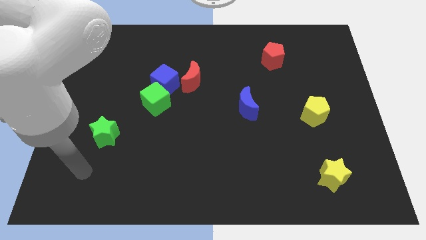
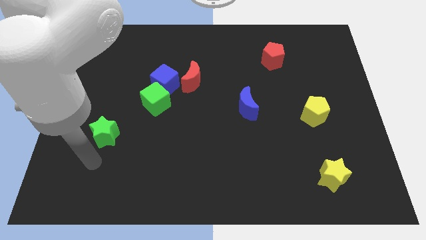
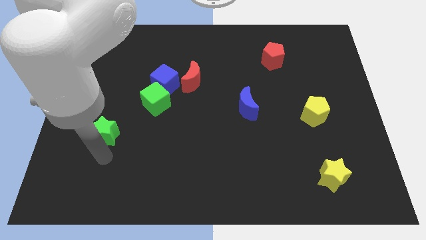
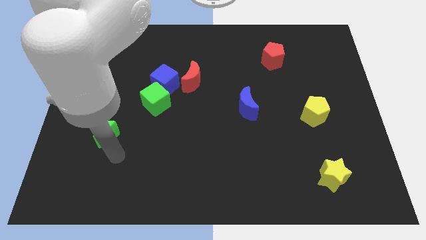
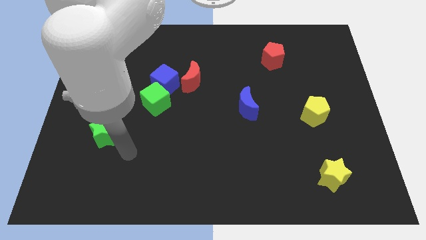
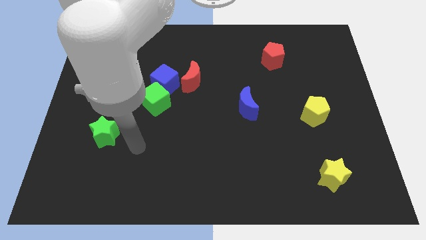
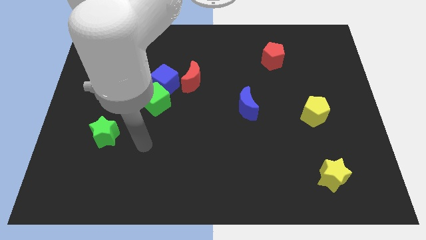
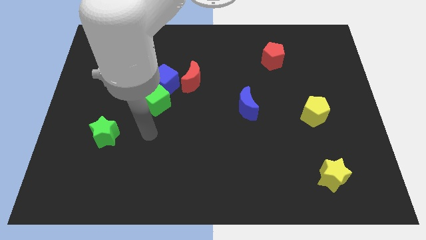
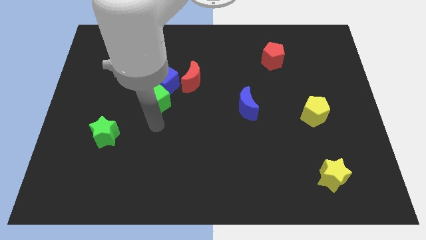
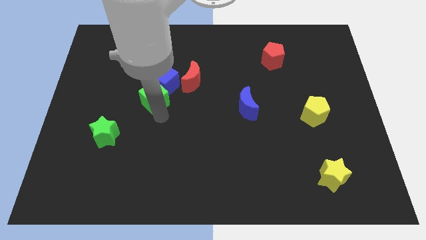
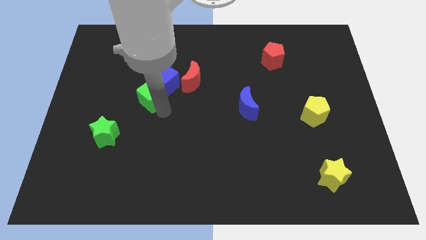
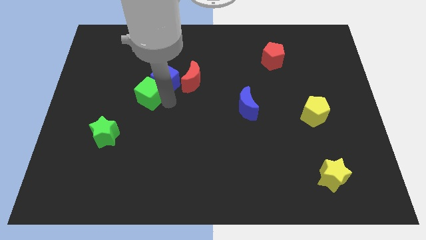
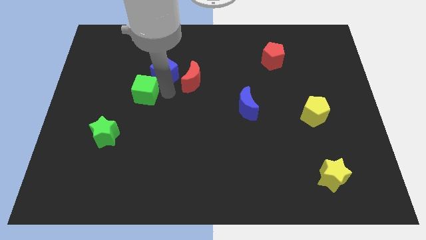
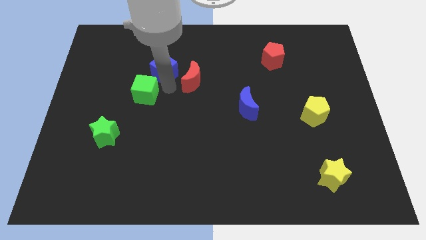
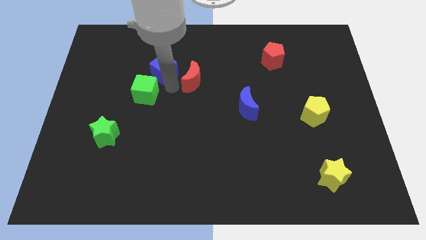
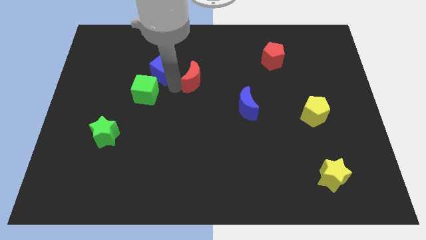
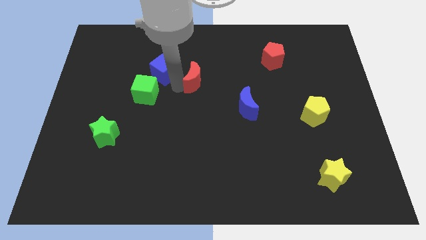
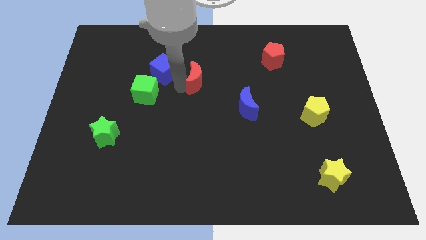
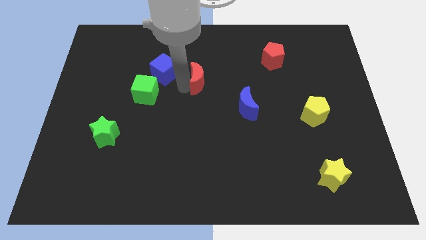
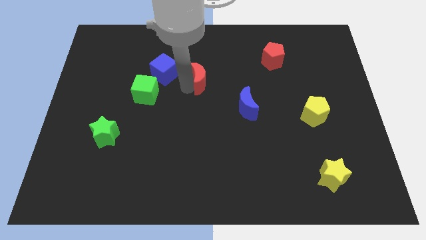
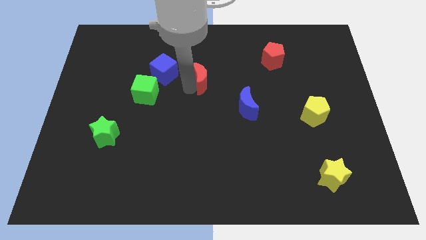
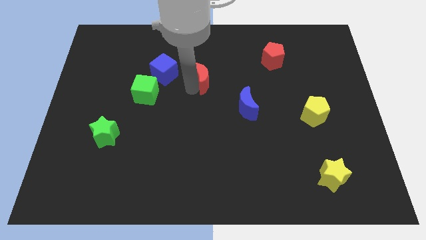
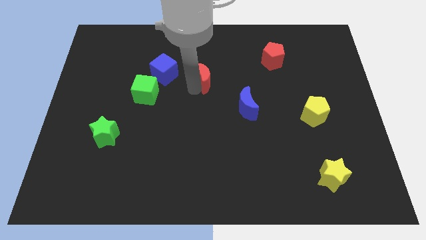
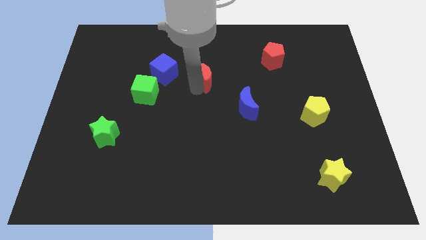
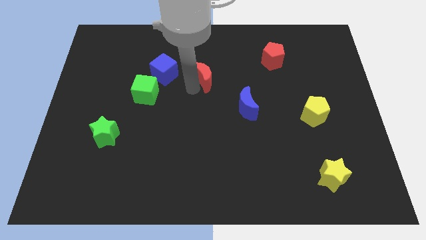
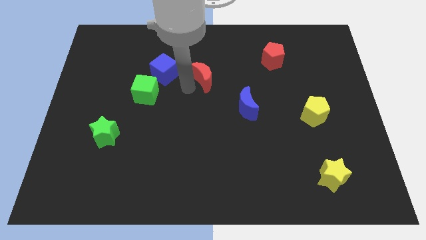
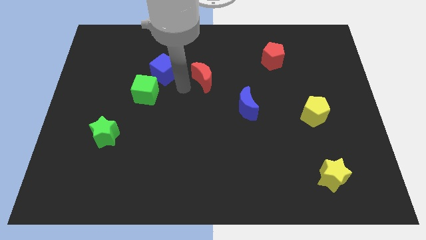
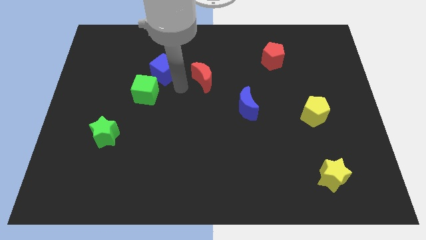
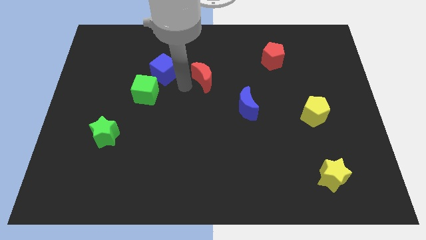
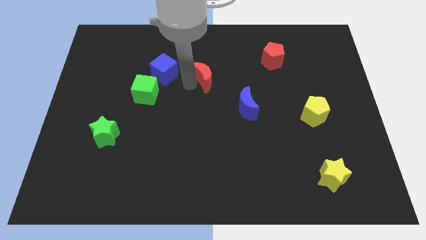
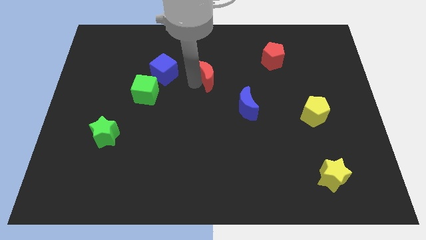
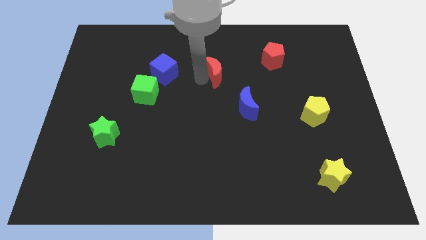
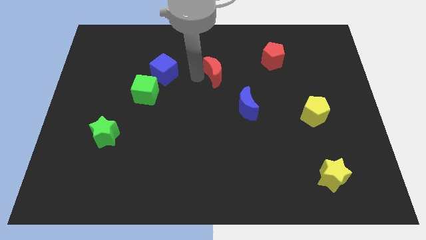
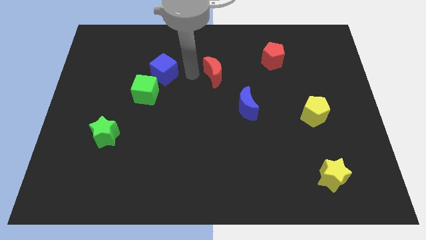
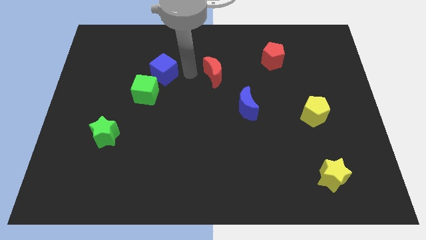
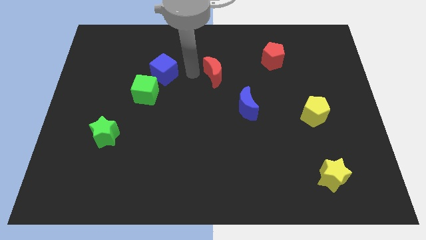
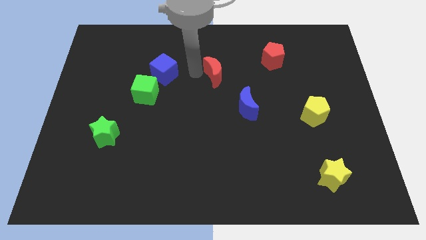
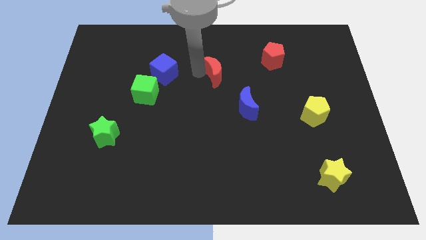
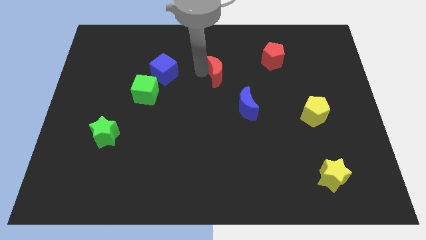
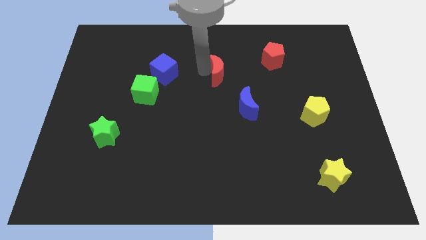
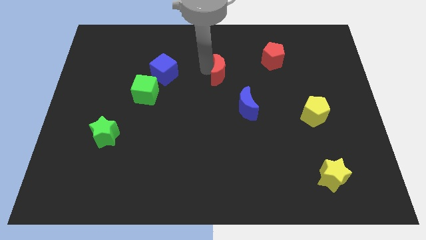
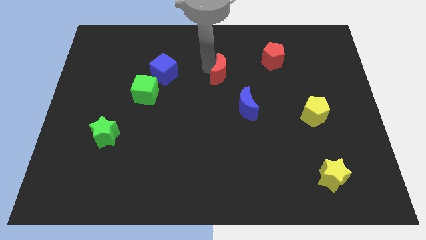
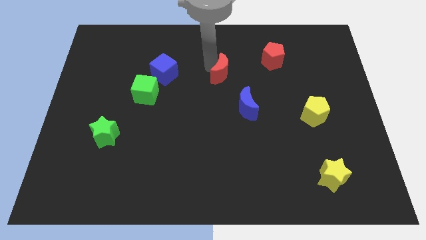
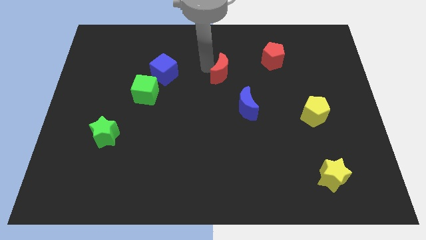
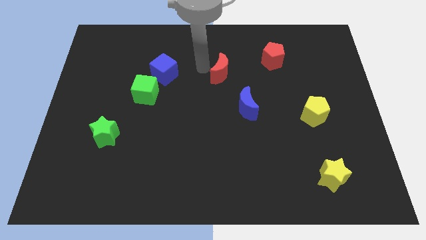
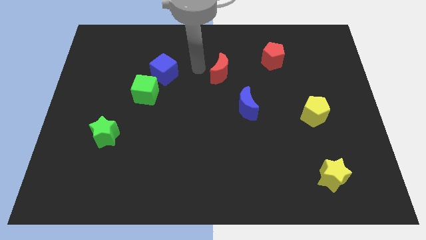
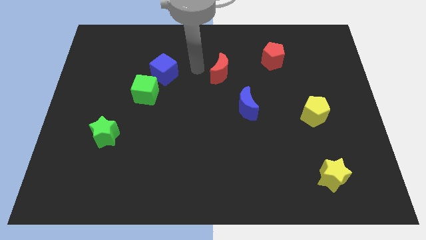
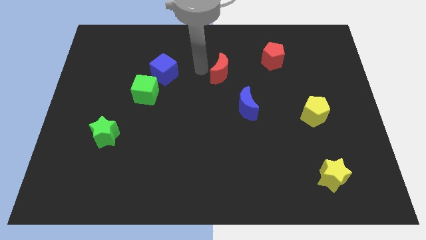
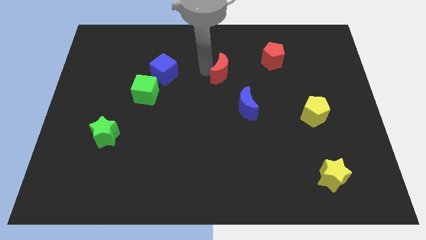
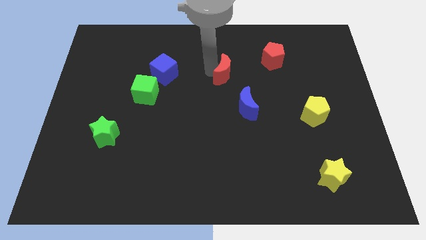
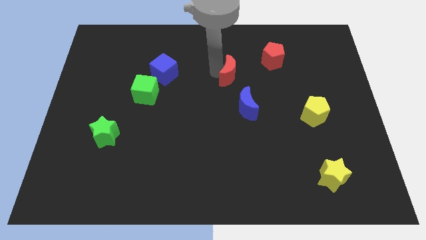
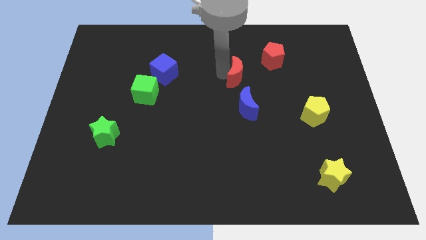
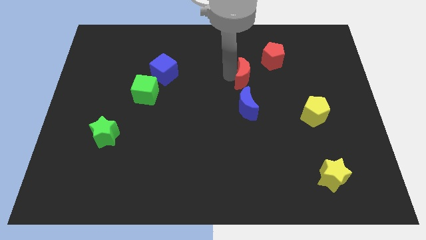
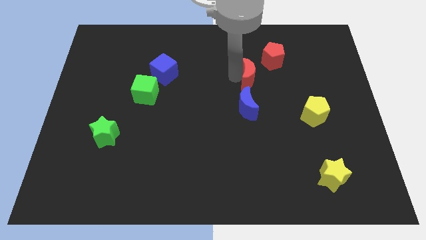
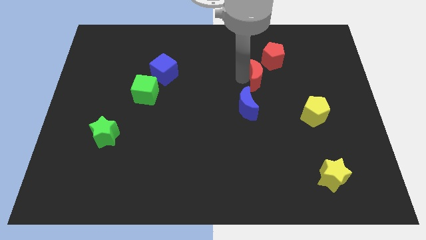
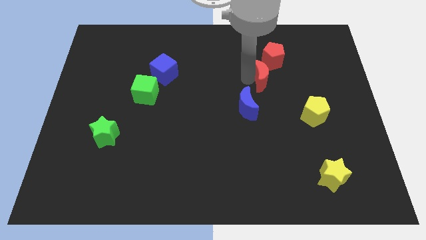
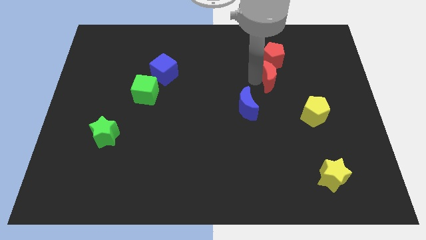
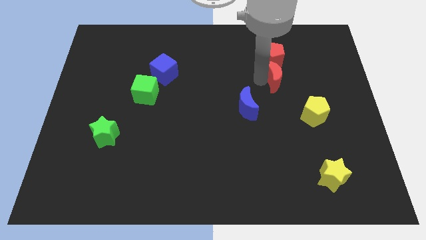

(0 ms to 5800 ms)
slide the red moon right

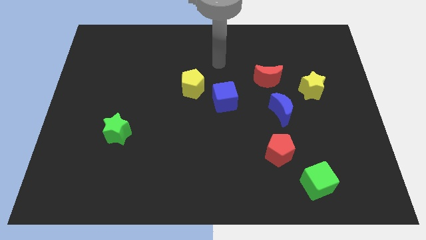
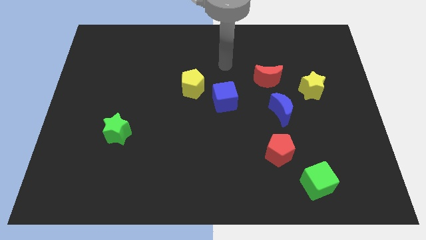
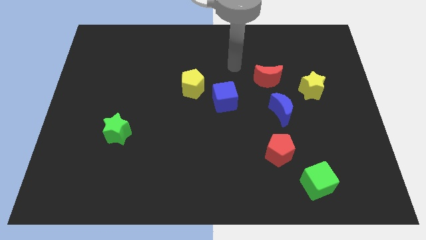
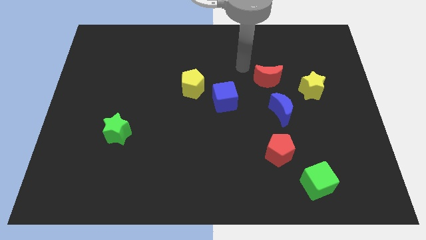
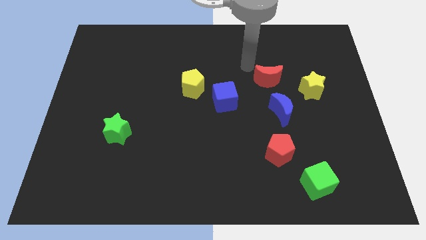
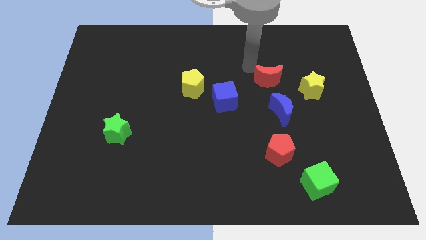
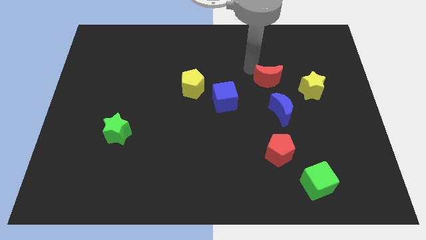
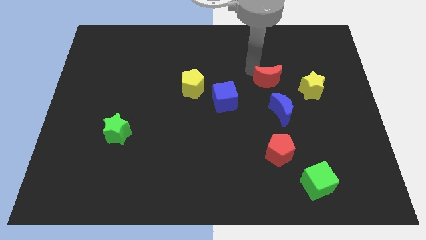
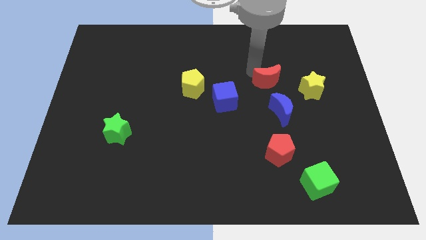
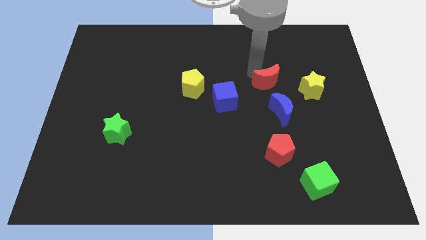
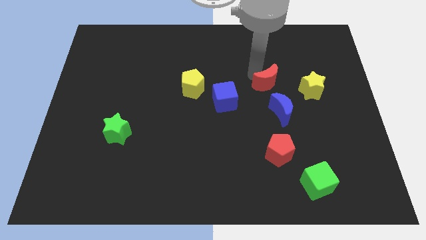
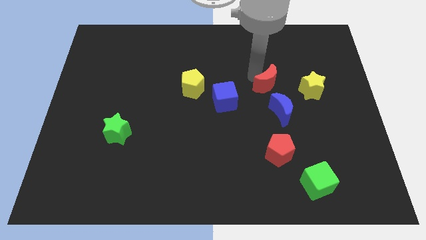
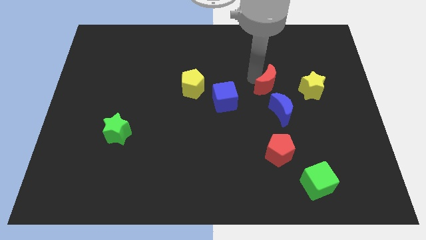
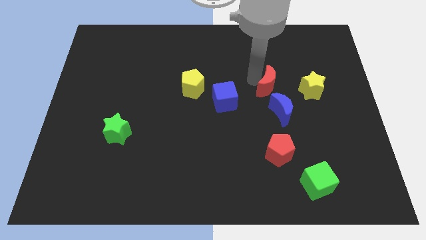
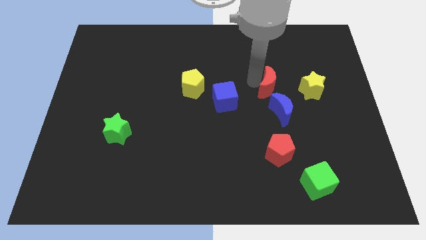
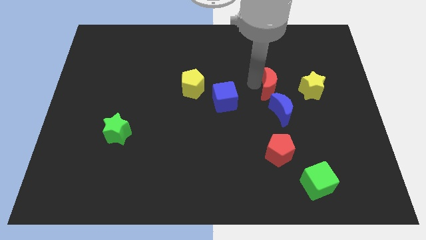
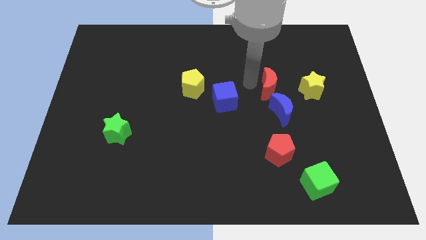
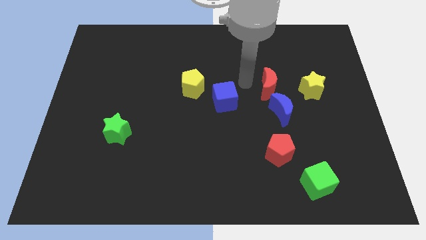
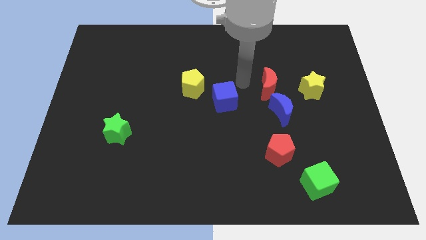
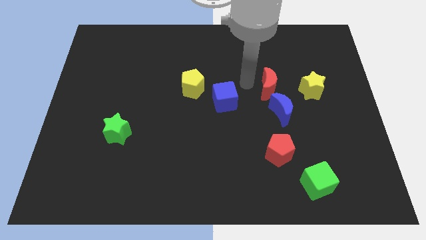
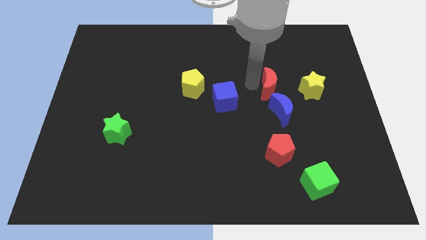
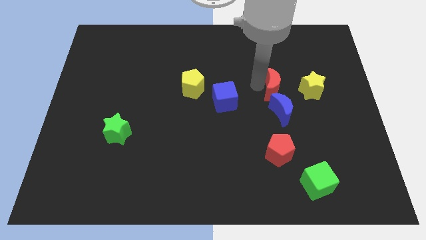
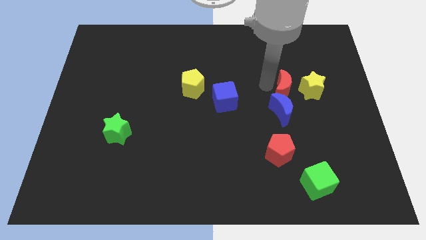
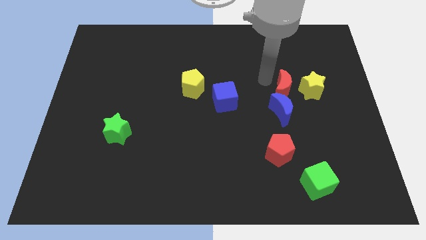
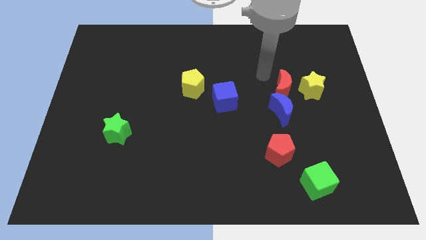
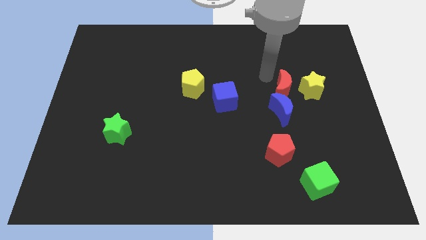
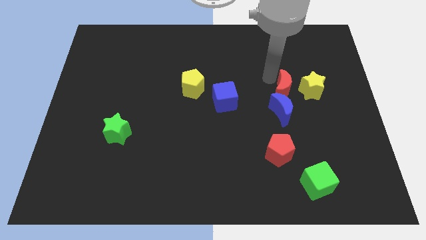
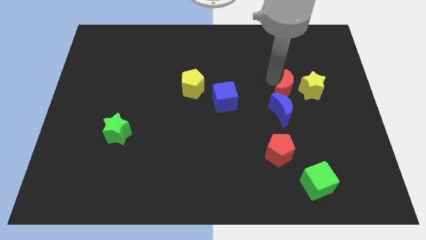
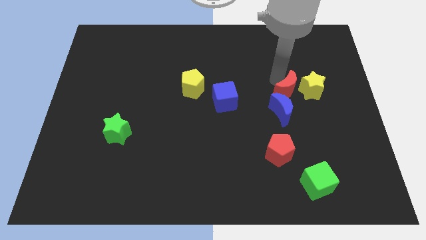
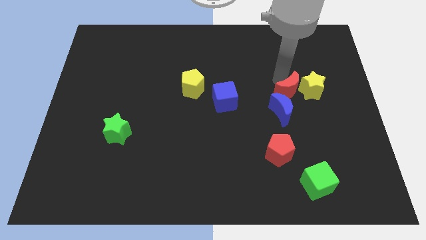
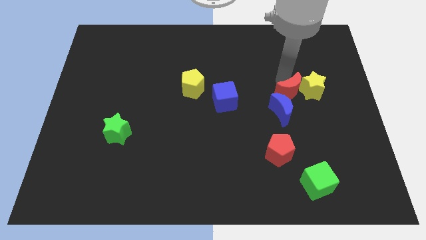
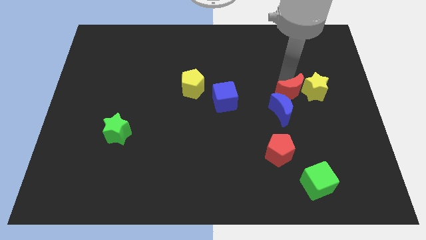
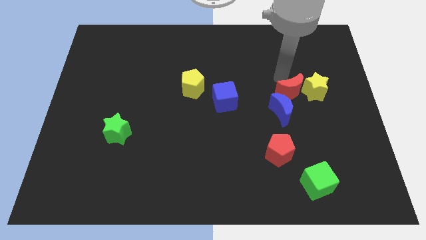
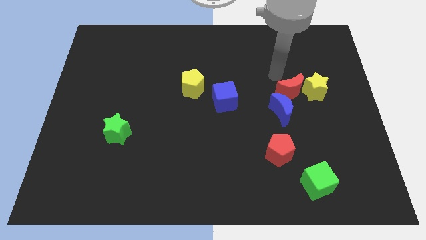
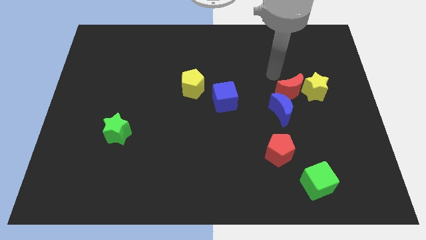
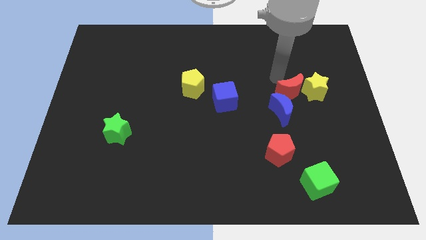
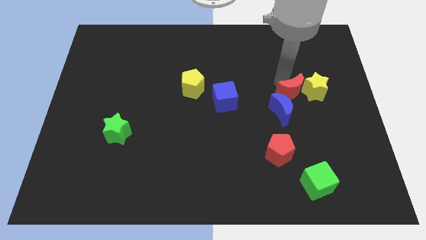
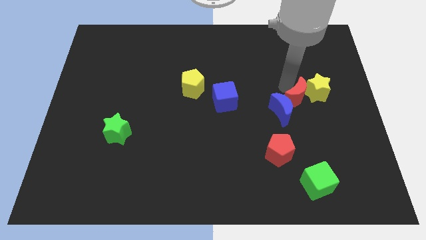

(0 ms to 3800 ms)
push the red moon downwards and right a little bit
